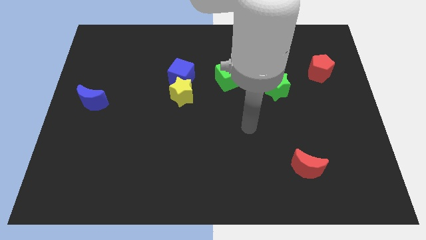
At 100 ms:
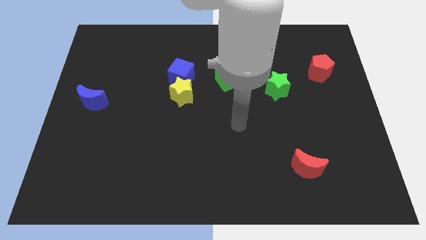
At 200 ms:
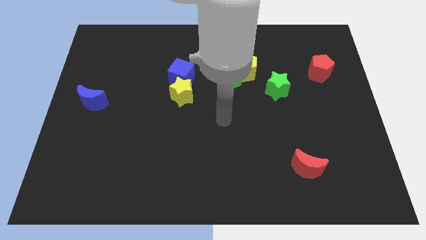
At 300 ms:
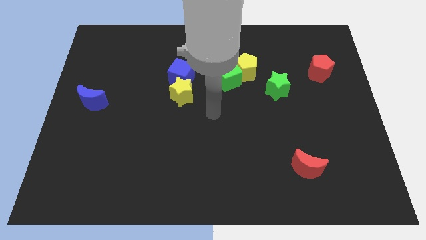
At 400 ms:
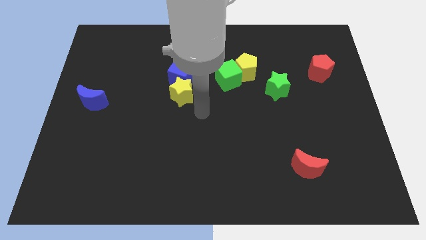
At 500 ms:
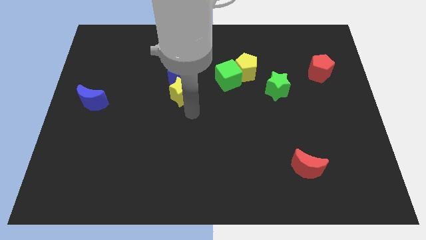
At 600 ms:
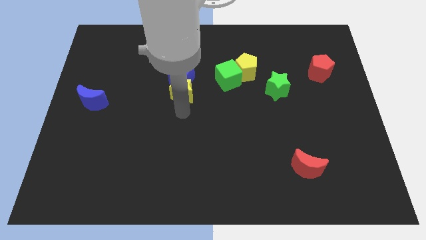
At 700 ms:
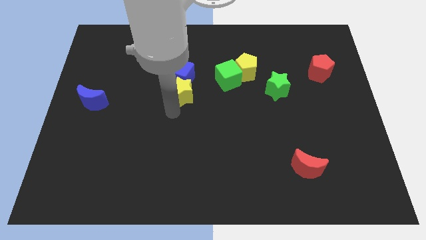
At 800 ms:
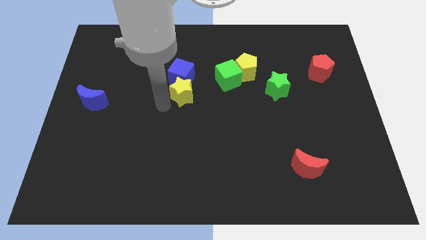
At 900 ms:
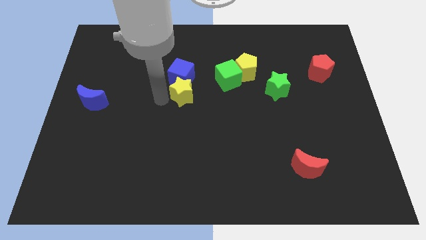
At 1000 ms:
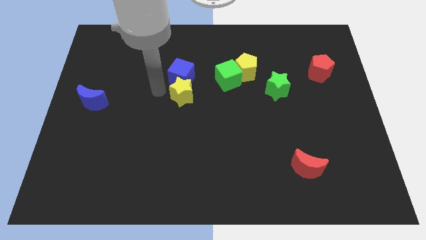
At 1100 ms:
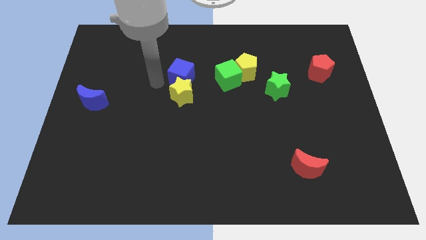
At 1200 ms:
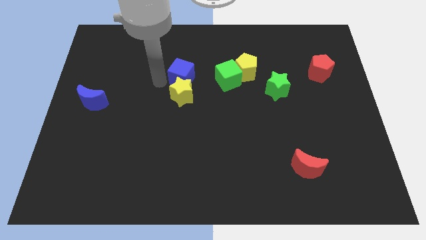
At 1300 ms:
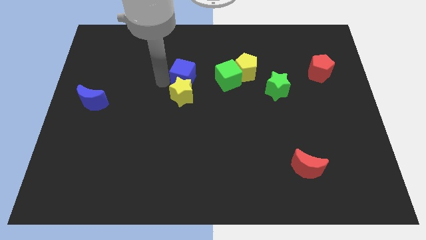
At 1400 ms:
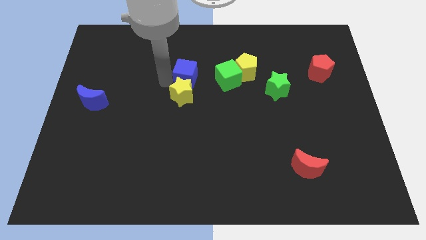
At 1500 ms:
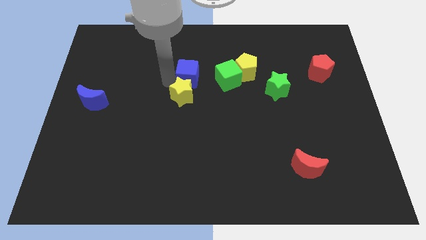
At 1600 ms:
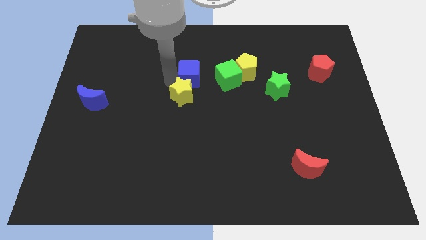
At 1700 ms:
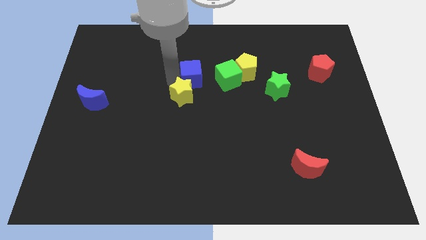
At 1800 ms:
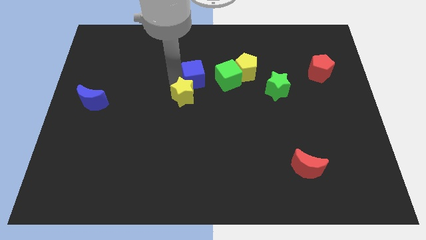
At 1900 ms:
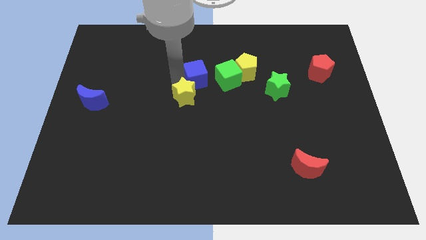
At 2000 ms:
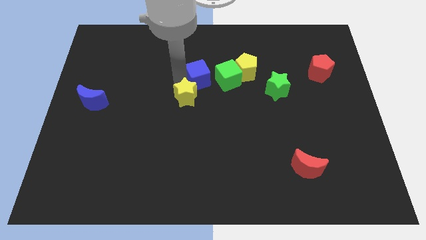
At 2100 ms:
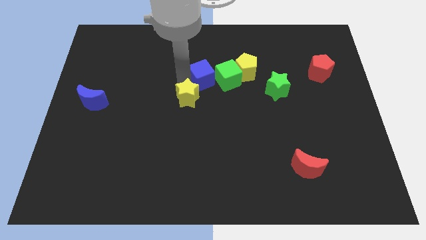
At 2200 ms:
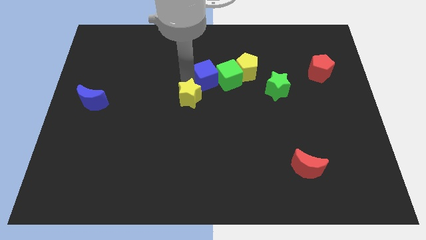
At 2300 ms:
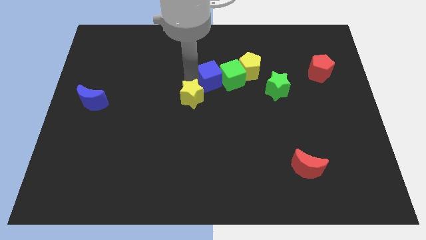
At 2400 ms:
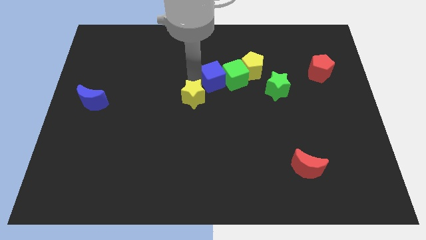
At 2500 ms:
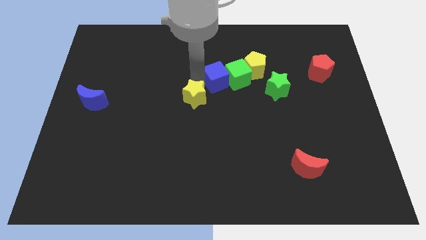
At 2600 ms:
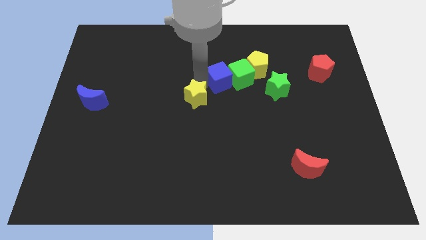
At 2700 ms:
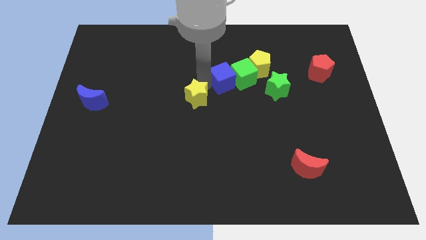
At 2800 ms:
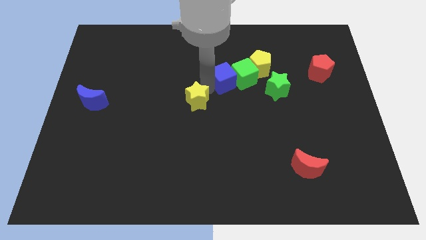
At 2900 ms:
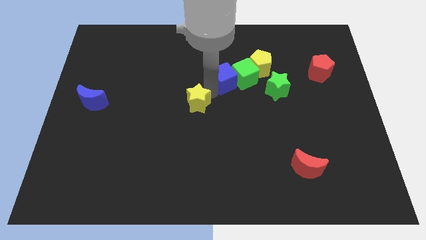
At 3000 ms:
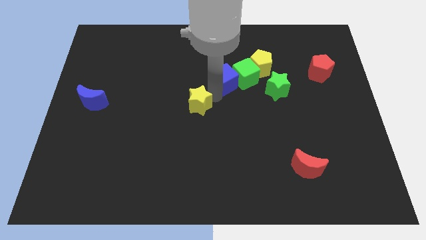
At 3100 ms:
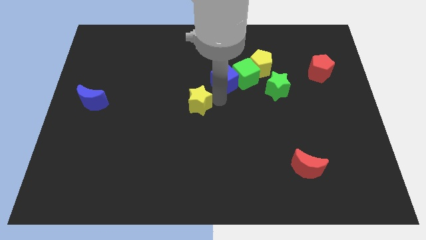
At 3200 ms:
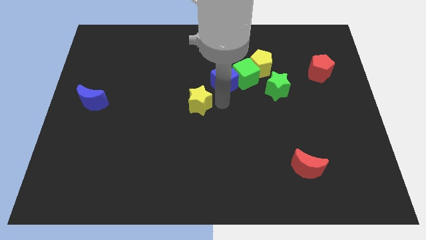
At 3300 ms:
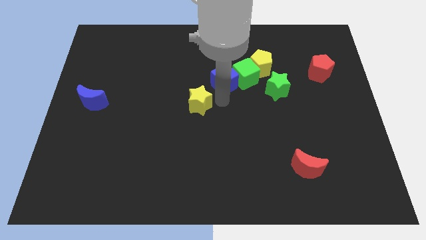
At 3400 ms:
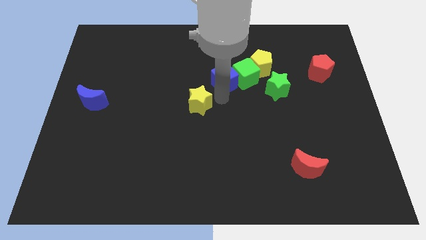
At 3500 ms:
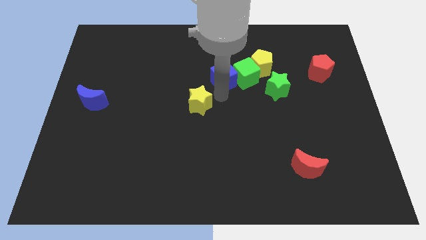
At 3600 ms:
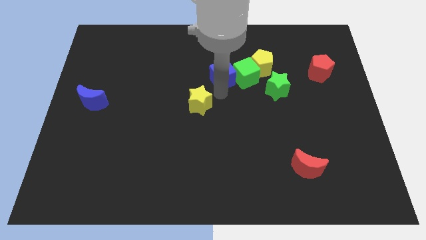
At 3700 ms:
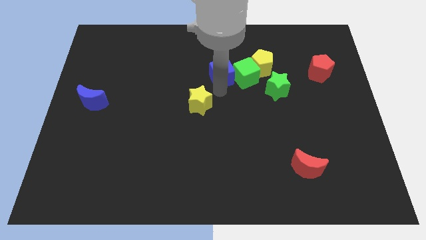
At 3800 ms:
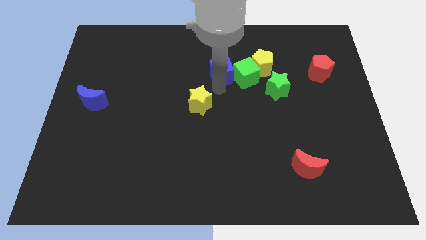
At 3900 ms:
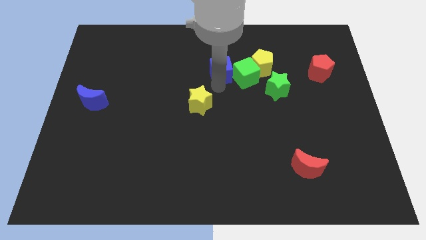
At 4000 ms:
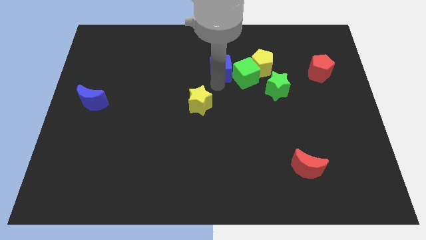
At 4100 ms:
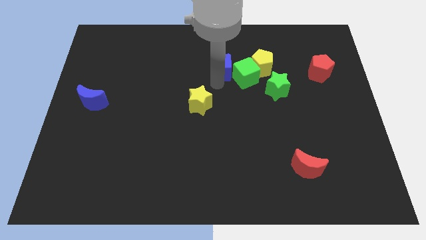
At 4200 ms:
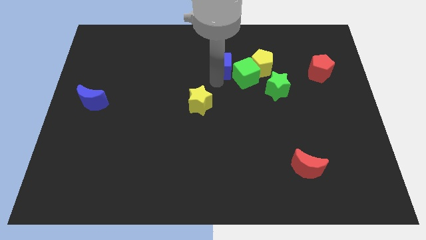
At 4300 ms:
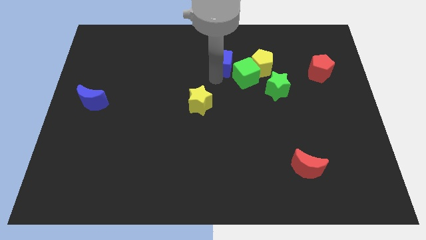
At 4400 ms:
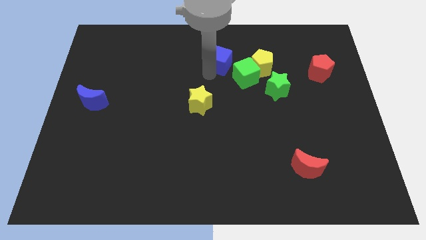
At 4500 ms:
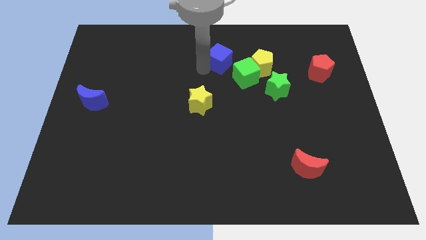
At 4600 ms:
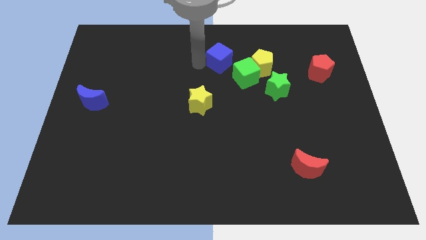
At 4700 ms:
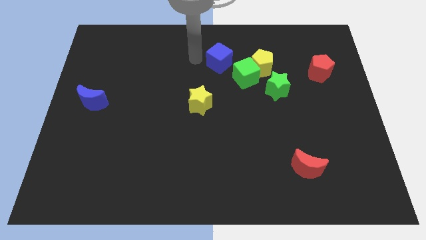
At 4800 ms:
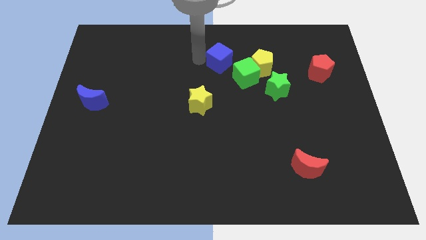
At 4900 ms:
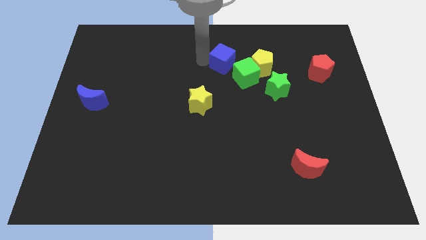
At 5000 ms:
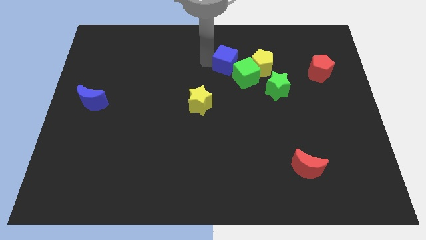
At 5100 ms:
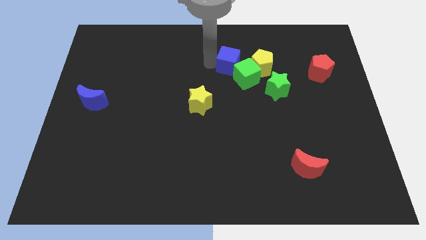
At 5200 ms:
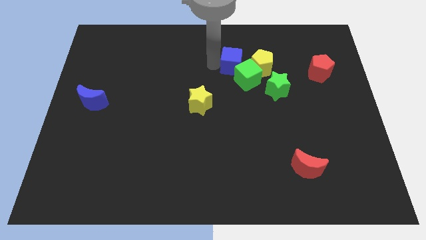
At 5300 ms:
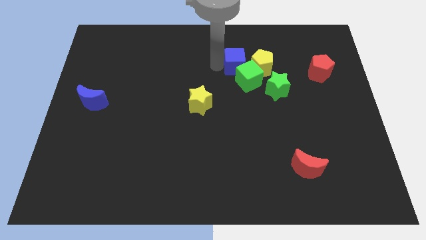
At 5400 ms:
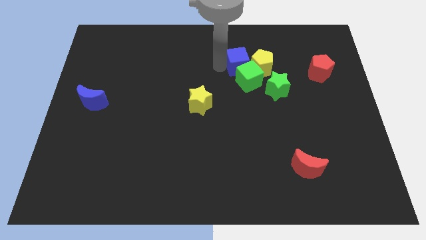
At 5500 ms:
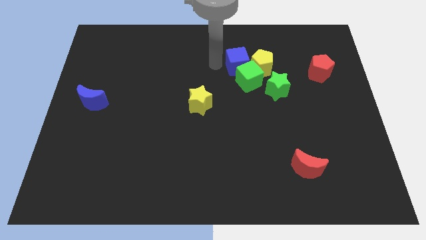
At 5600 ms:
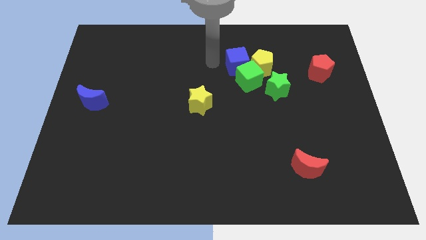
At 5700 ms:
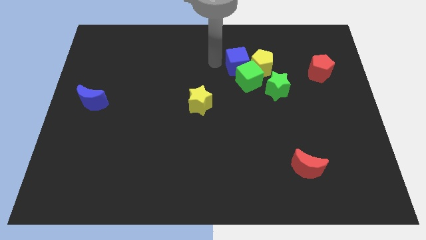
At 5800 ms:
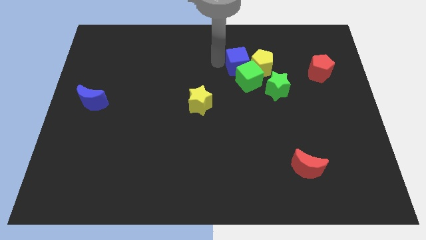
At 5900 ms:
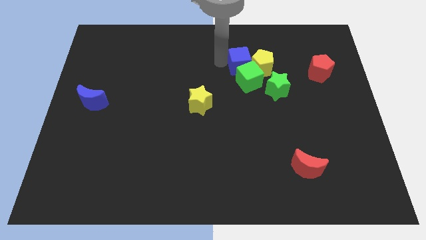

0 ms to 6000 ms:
slide the blue cube close to the yellow pentagon

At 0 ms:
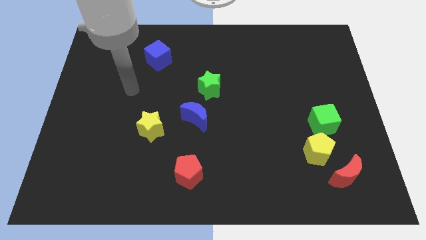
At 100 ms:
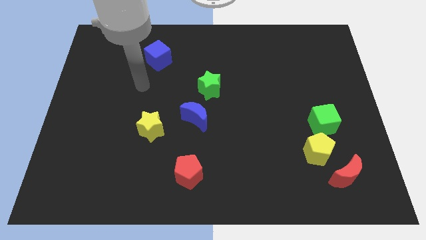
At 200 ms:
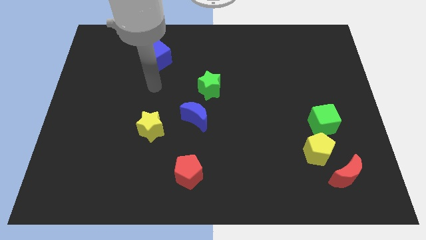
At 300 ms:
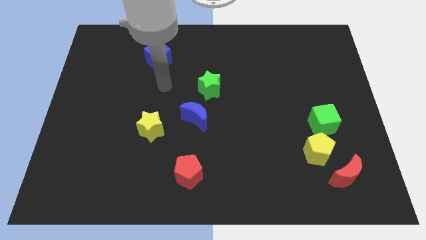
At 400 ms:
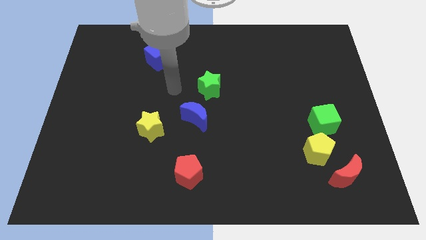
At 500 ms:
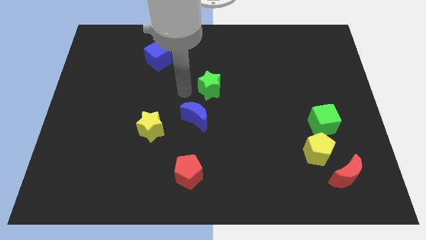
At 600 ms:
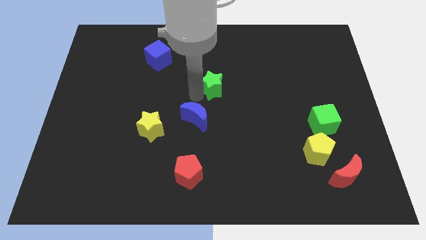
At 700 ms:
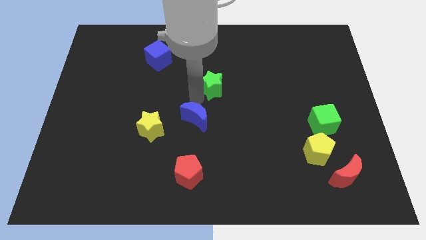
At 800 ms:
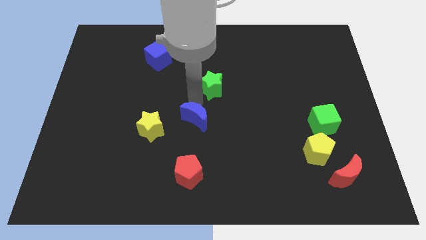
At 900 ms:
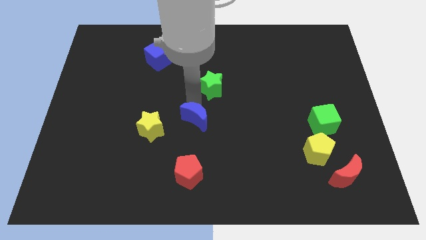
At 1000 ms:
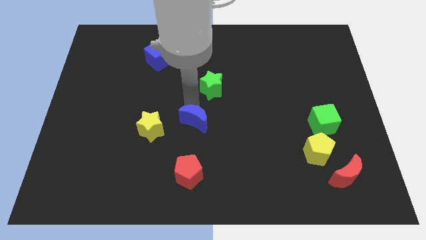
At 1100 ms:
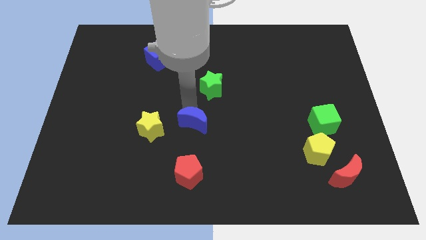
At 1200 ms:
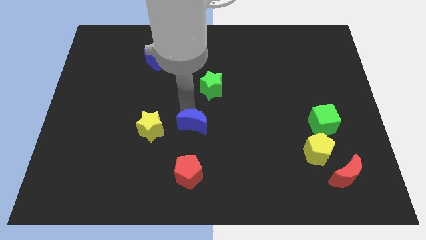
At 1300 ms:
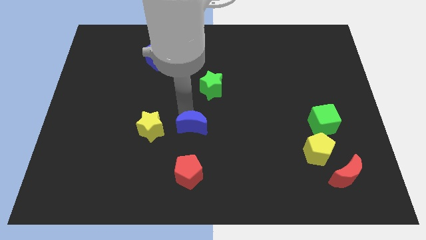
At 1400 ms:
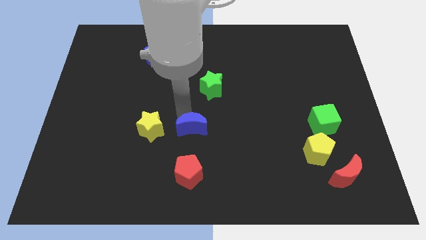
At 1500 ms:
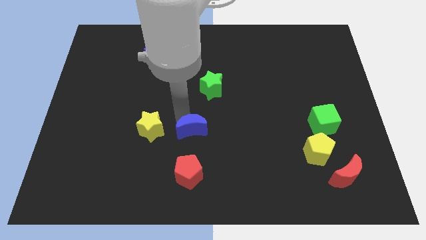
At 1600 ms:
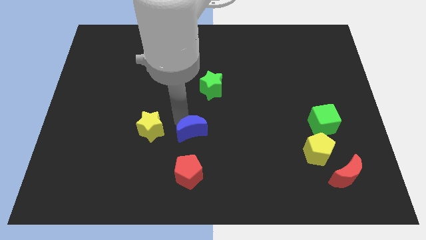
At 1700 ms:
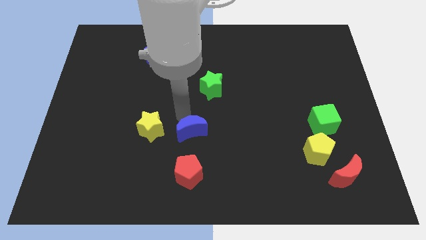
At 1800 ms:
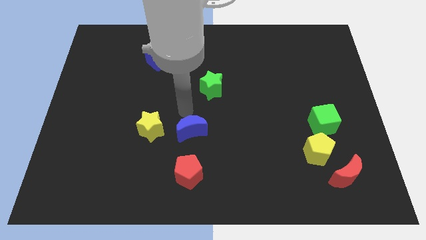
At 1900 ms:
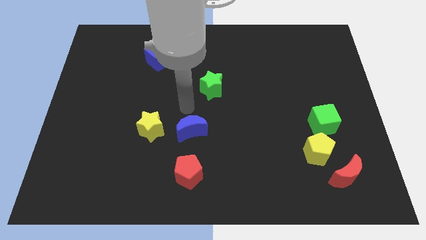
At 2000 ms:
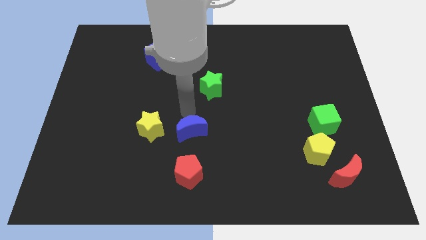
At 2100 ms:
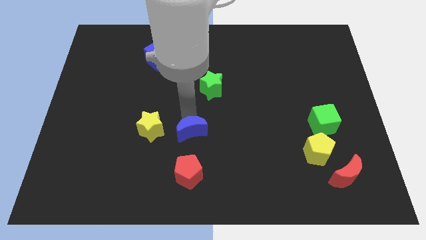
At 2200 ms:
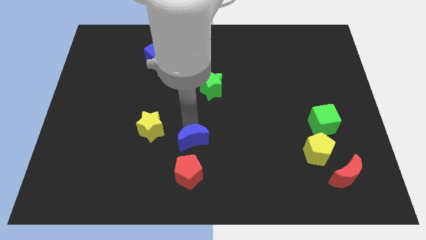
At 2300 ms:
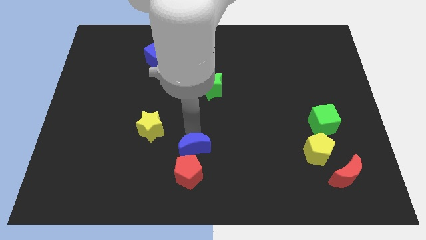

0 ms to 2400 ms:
move the blue moon to the red pentagon
